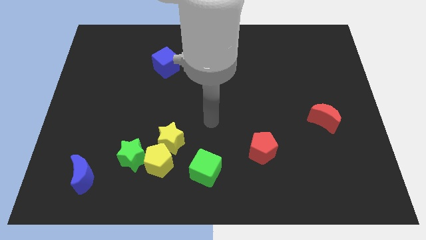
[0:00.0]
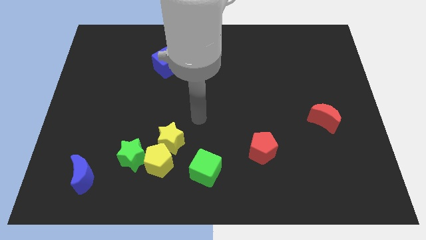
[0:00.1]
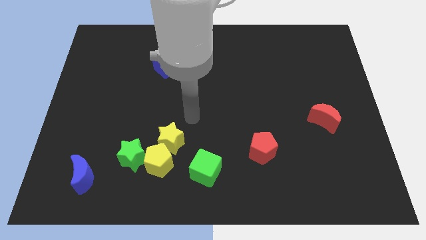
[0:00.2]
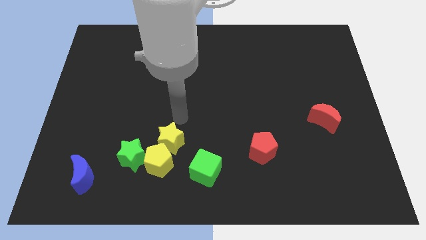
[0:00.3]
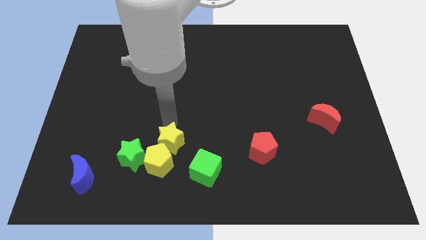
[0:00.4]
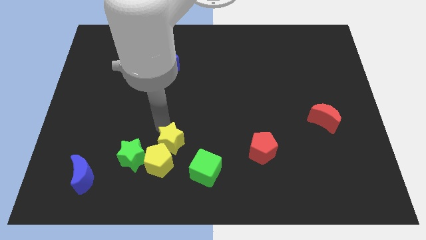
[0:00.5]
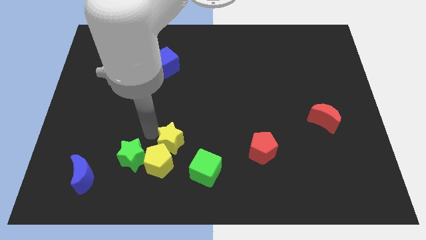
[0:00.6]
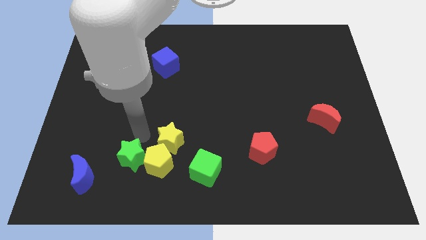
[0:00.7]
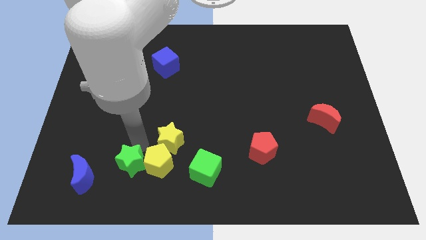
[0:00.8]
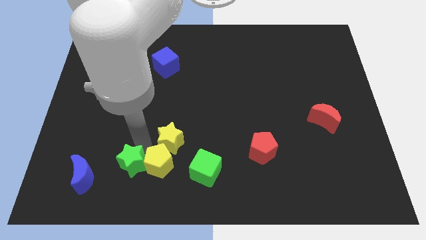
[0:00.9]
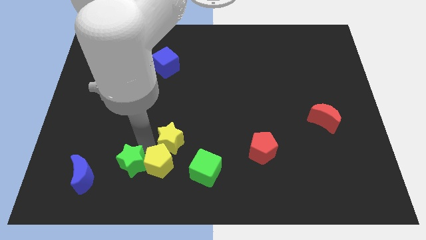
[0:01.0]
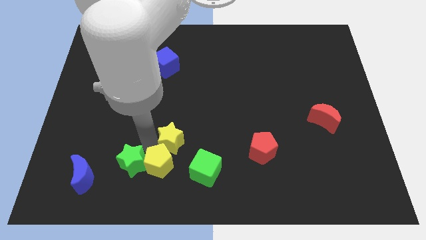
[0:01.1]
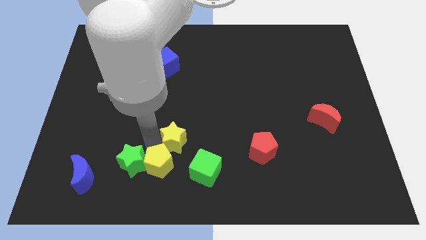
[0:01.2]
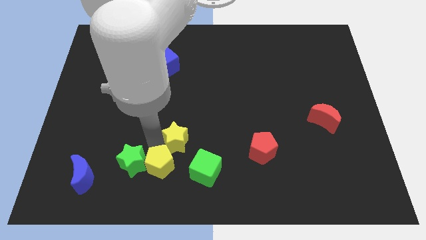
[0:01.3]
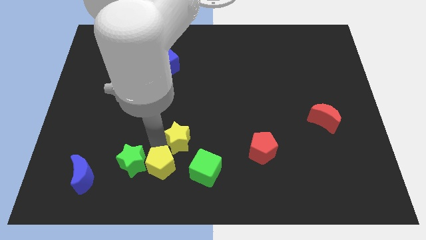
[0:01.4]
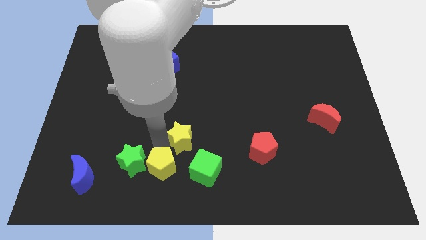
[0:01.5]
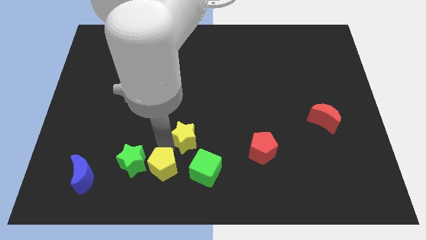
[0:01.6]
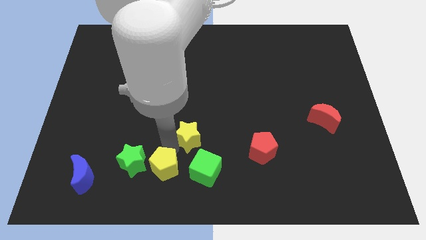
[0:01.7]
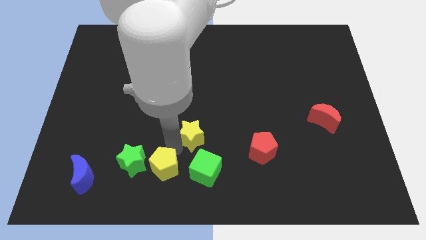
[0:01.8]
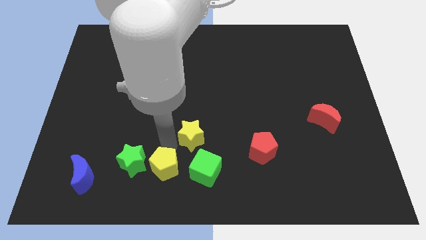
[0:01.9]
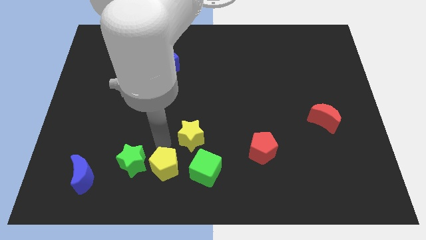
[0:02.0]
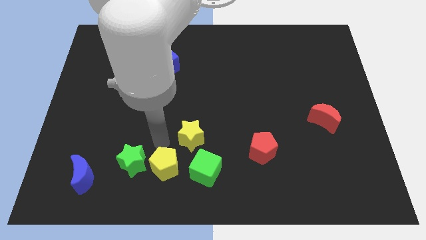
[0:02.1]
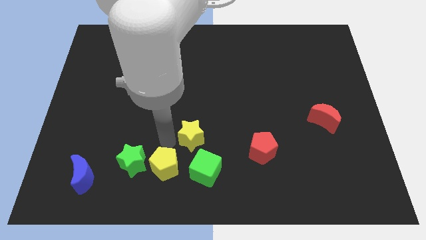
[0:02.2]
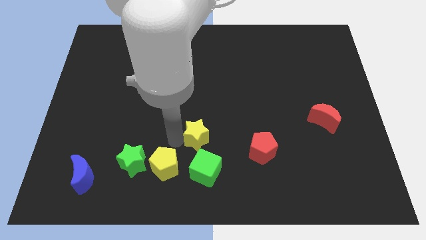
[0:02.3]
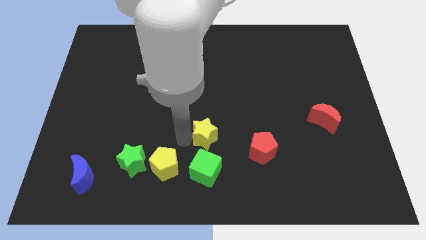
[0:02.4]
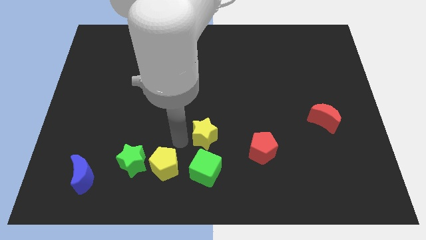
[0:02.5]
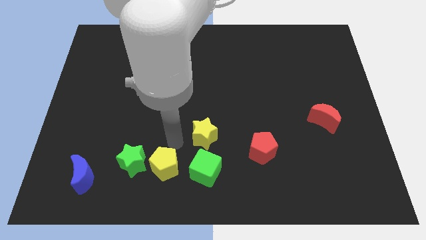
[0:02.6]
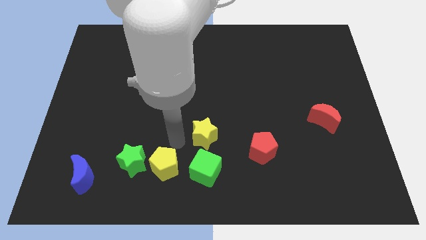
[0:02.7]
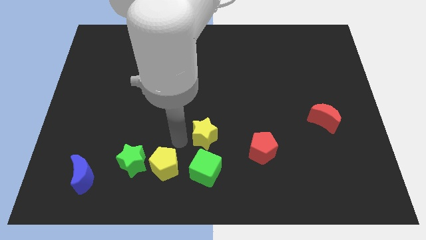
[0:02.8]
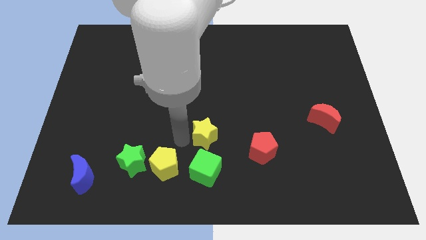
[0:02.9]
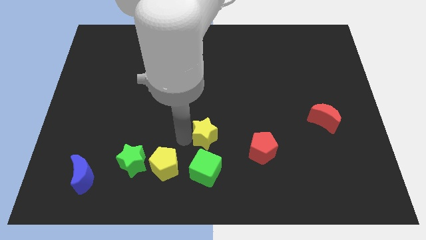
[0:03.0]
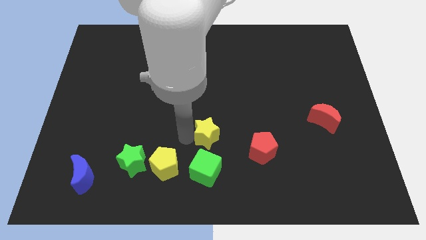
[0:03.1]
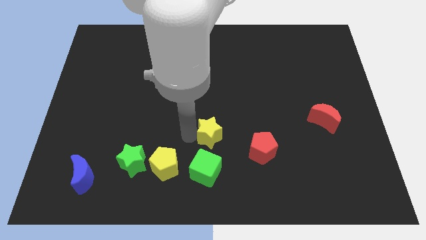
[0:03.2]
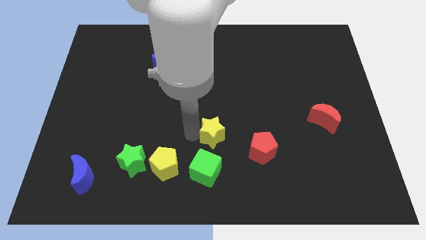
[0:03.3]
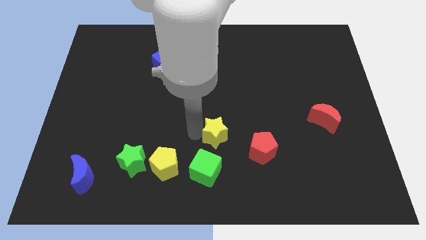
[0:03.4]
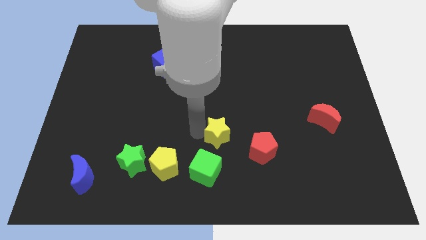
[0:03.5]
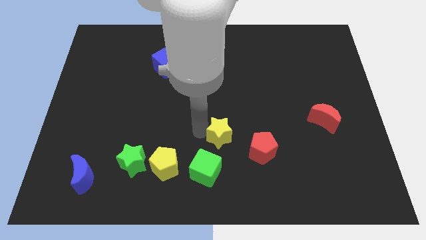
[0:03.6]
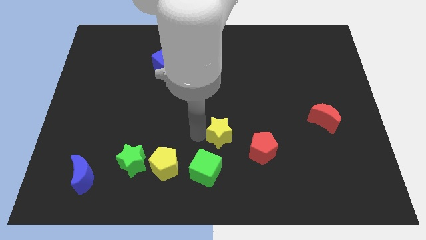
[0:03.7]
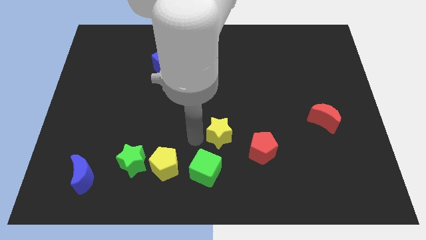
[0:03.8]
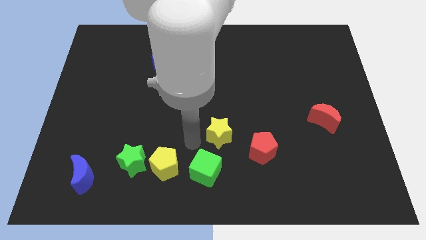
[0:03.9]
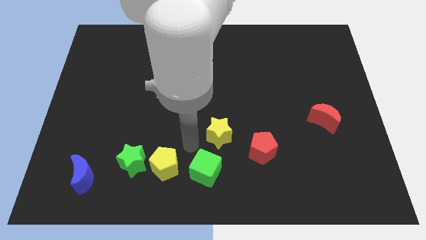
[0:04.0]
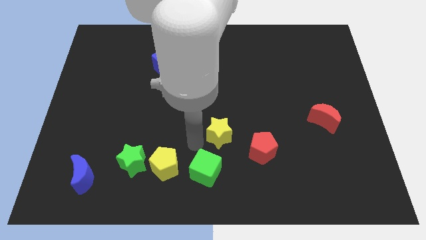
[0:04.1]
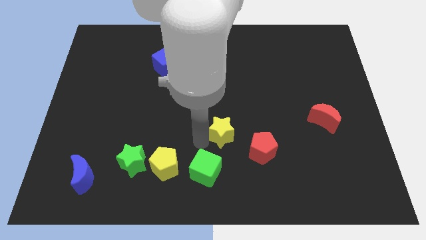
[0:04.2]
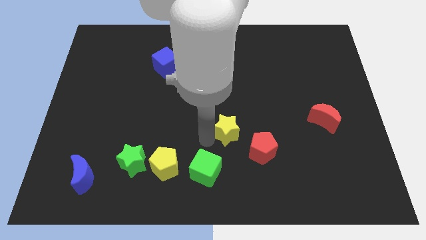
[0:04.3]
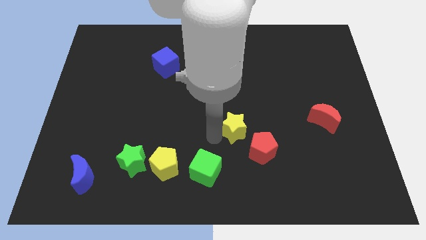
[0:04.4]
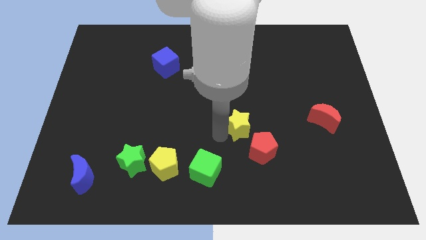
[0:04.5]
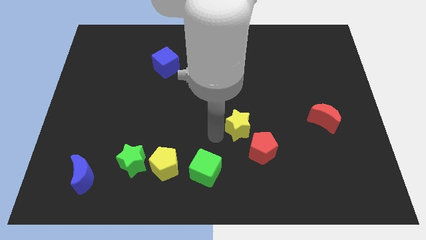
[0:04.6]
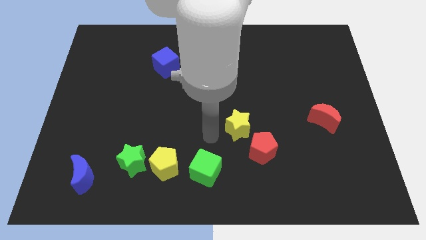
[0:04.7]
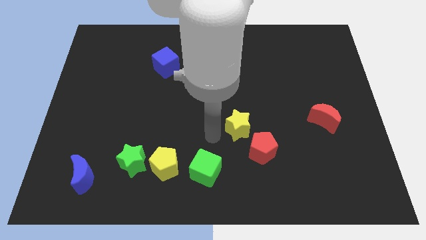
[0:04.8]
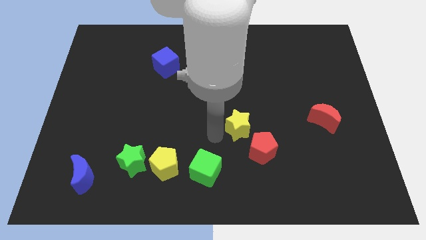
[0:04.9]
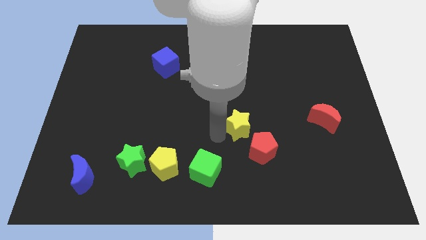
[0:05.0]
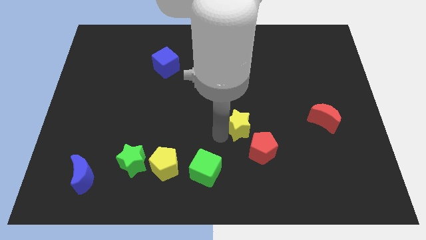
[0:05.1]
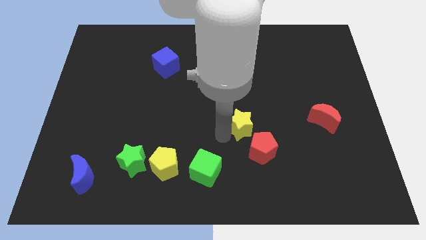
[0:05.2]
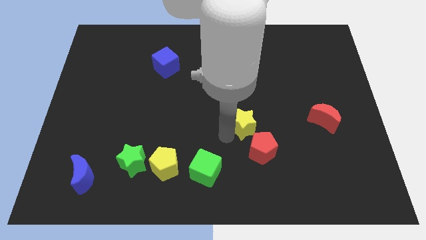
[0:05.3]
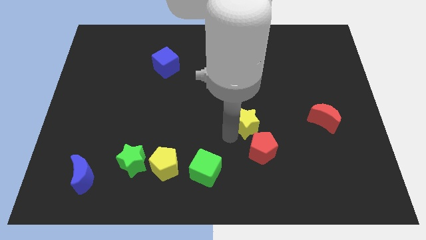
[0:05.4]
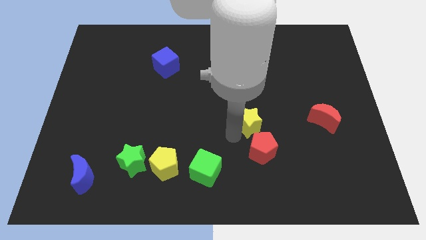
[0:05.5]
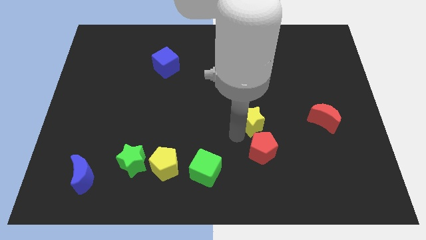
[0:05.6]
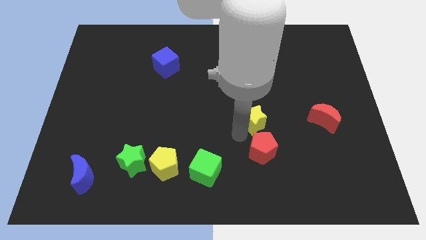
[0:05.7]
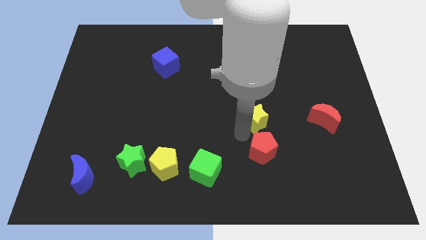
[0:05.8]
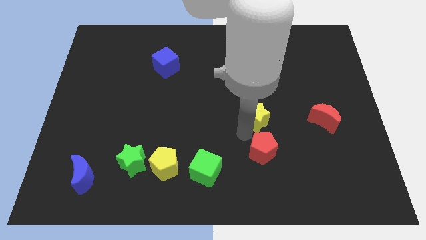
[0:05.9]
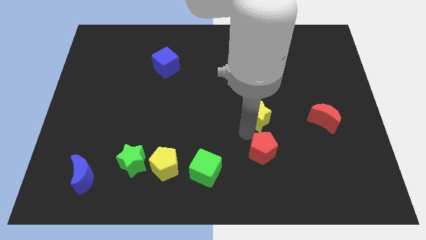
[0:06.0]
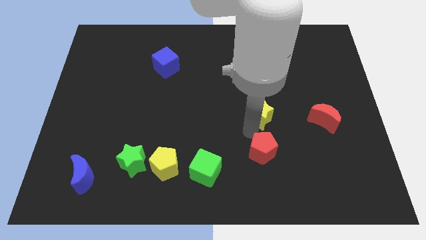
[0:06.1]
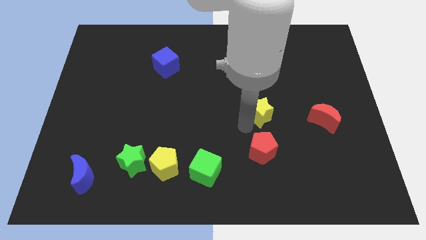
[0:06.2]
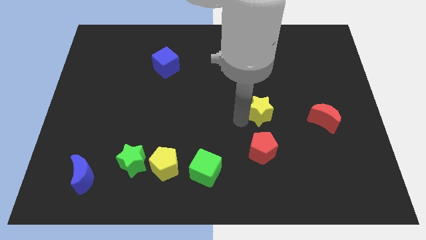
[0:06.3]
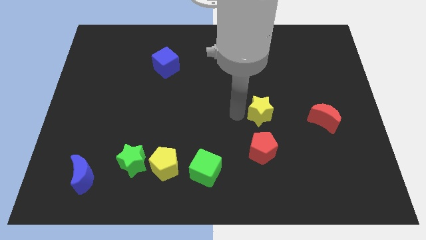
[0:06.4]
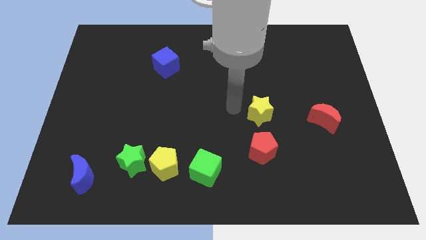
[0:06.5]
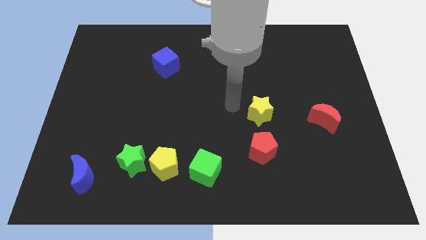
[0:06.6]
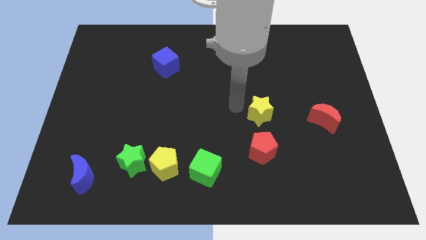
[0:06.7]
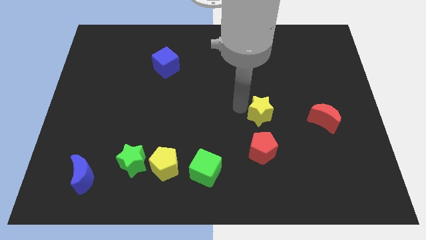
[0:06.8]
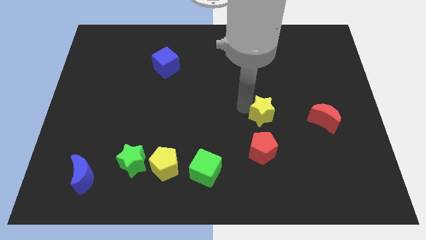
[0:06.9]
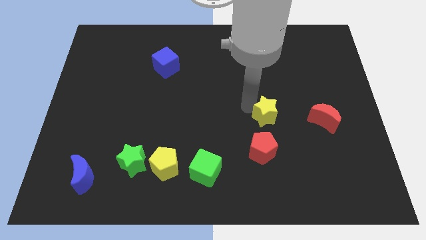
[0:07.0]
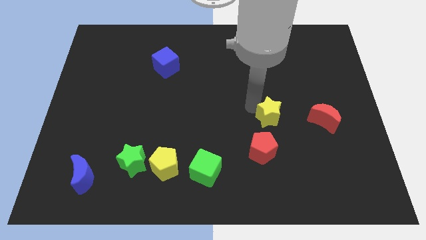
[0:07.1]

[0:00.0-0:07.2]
move the yellow star to the right

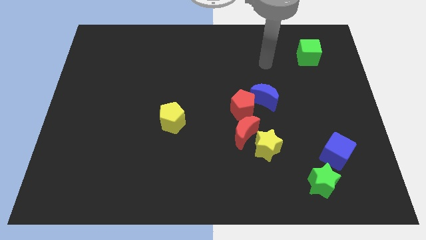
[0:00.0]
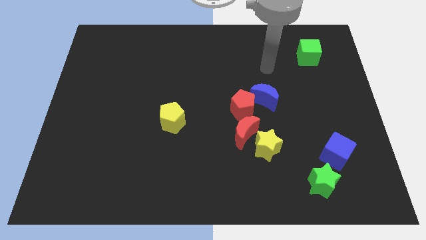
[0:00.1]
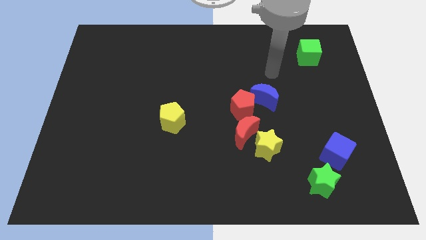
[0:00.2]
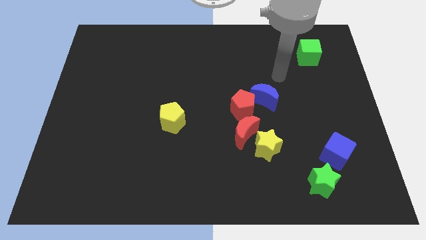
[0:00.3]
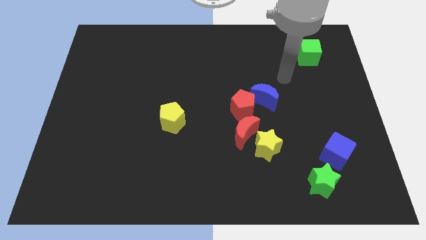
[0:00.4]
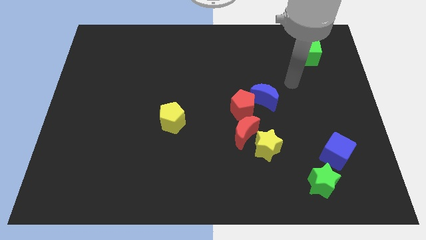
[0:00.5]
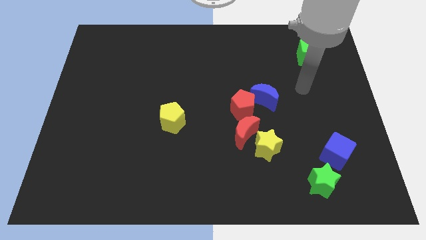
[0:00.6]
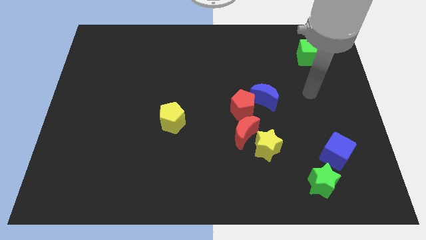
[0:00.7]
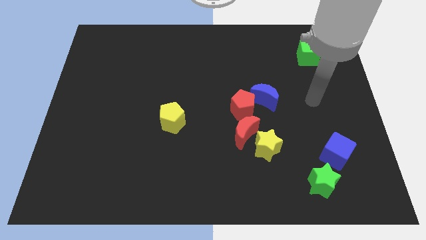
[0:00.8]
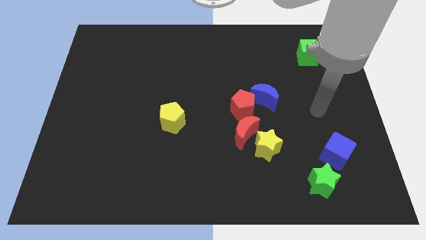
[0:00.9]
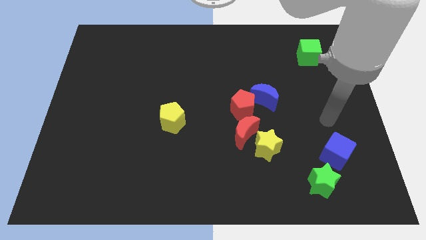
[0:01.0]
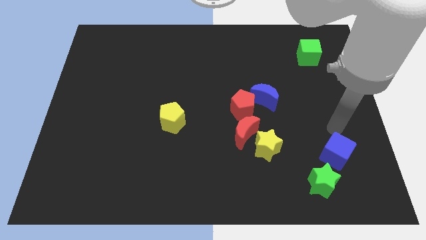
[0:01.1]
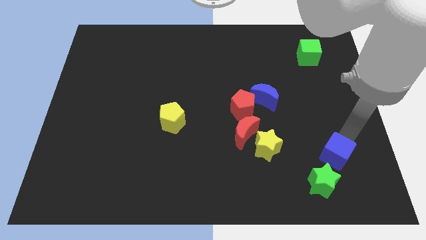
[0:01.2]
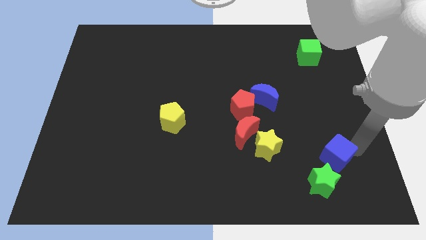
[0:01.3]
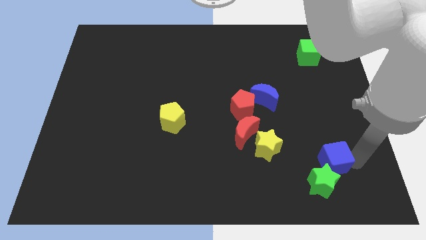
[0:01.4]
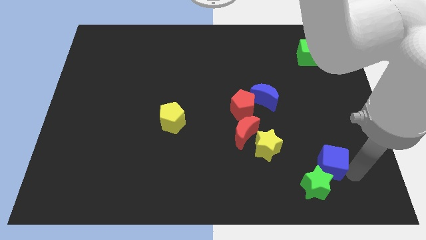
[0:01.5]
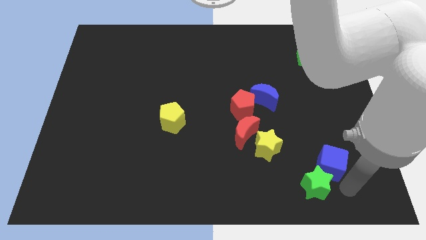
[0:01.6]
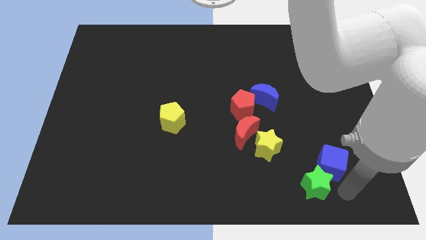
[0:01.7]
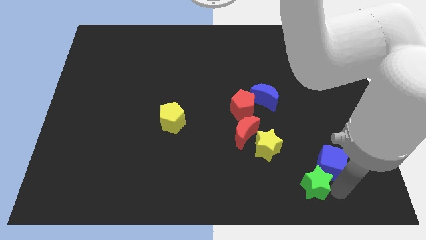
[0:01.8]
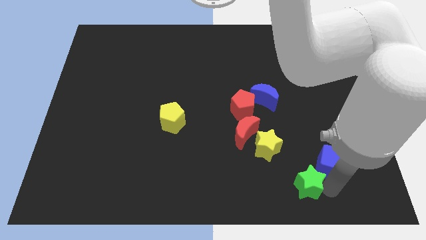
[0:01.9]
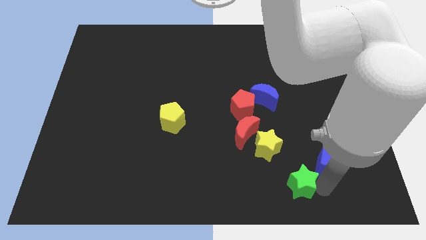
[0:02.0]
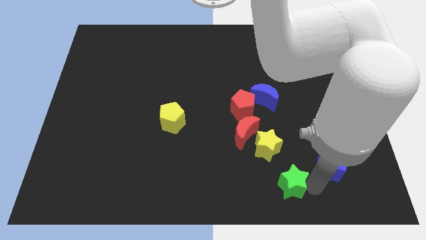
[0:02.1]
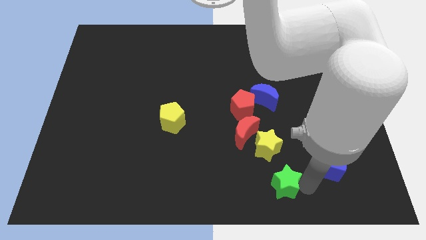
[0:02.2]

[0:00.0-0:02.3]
push the green star a little to the left
